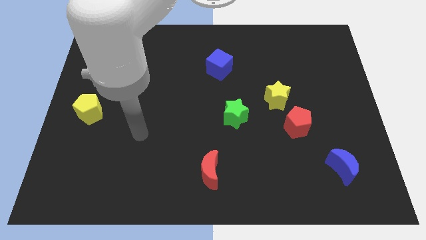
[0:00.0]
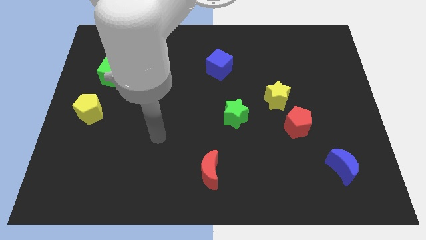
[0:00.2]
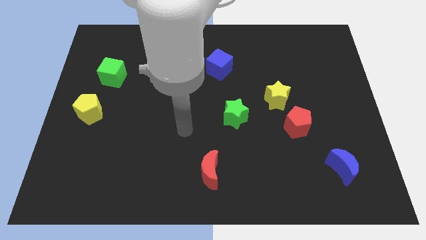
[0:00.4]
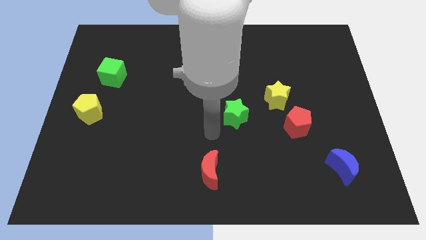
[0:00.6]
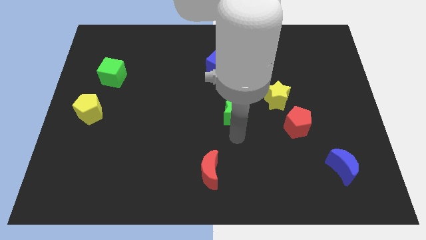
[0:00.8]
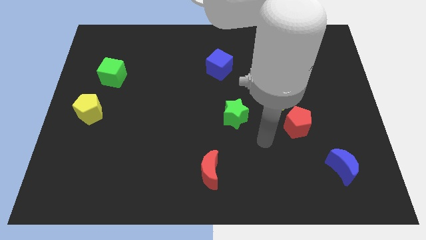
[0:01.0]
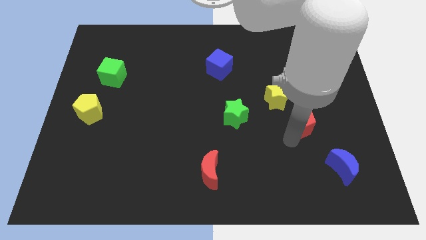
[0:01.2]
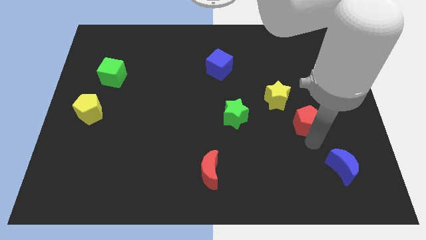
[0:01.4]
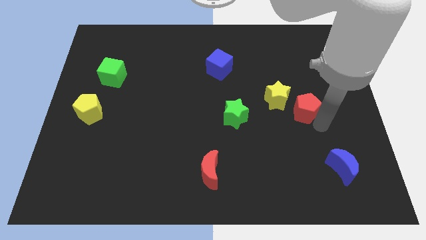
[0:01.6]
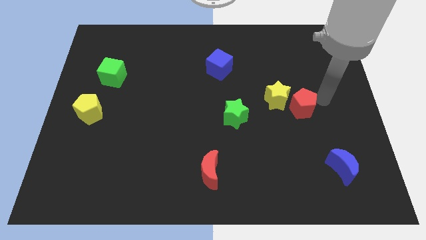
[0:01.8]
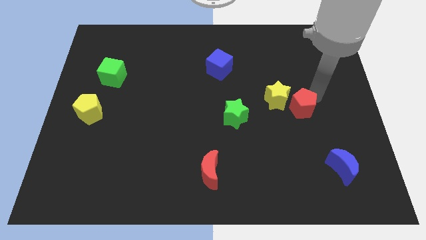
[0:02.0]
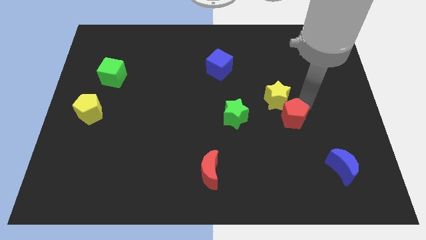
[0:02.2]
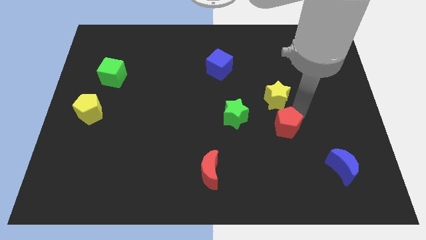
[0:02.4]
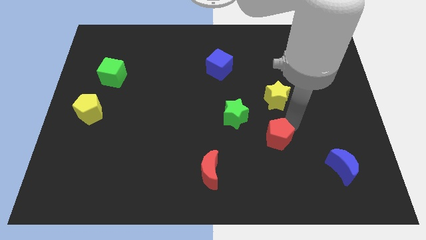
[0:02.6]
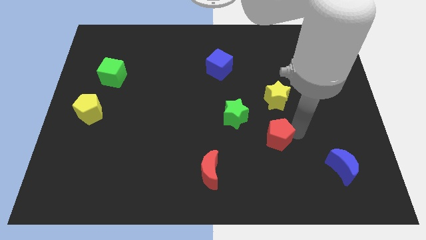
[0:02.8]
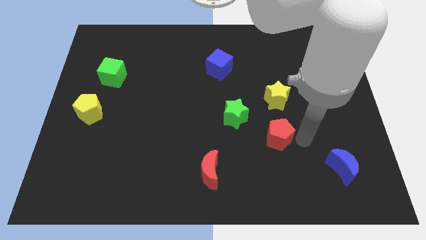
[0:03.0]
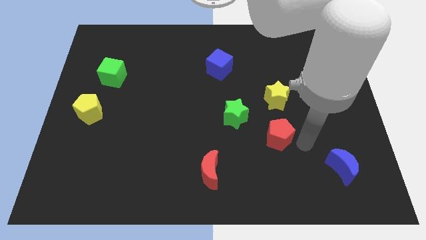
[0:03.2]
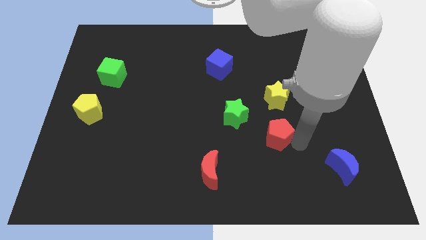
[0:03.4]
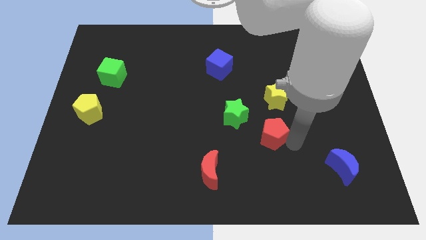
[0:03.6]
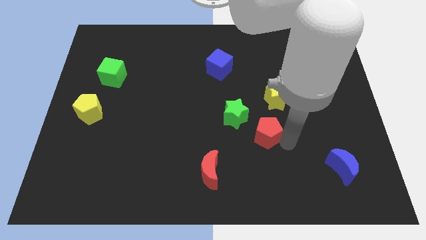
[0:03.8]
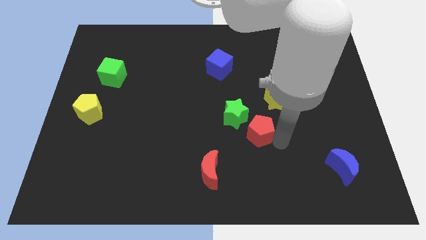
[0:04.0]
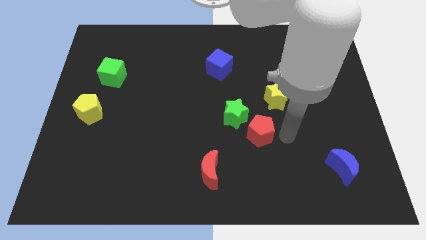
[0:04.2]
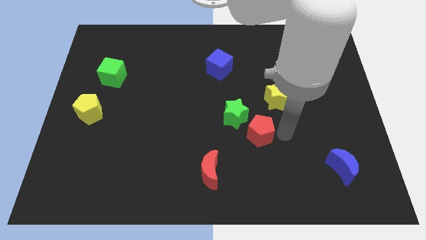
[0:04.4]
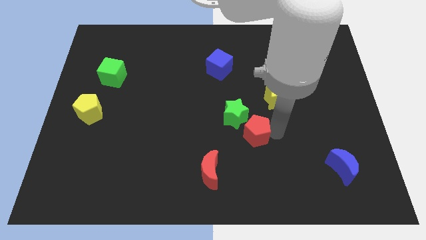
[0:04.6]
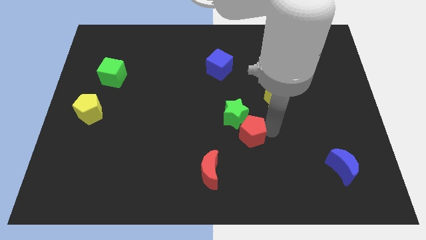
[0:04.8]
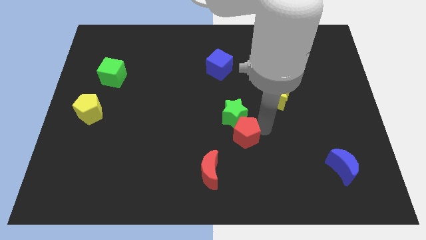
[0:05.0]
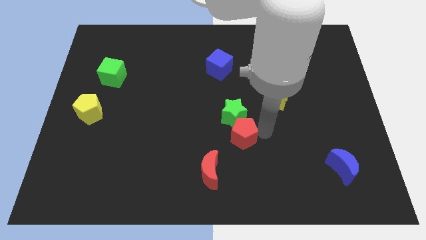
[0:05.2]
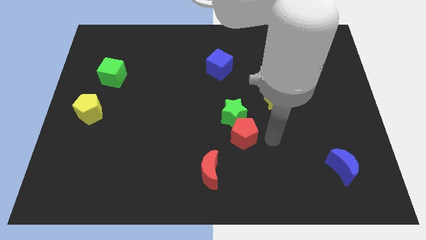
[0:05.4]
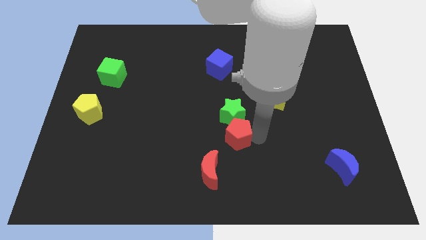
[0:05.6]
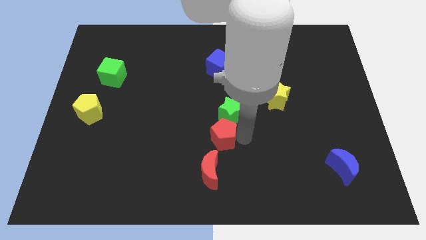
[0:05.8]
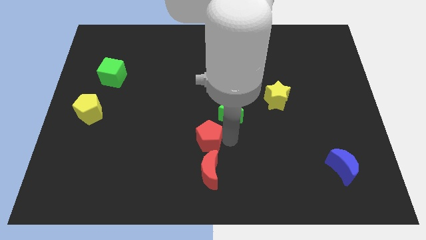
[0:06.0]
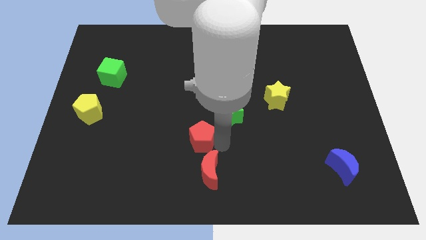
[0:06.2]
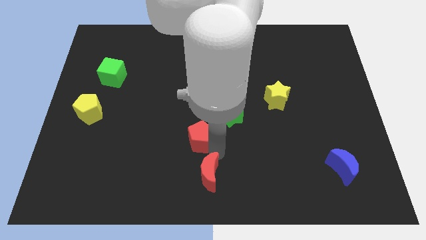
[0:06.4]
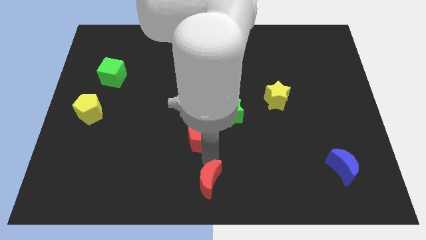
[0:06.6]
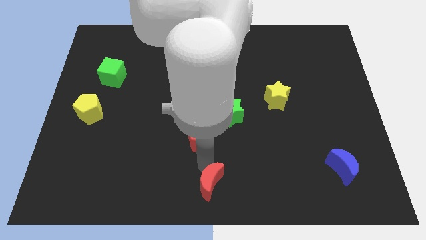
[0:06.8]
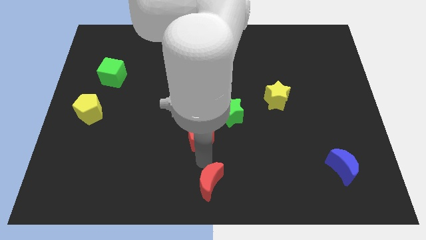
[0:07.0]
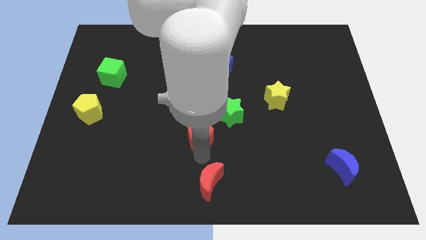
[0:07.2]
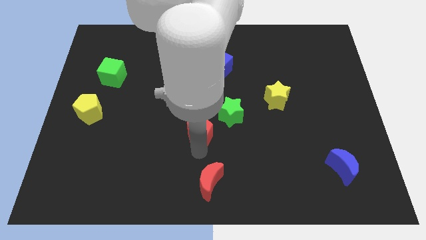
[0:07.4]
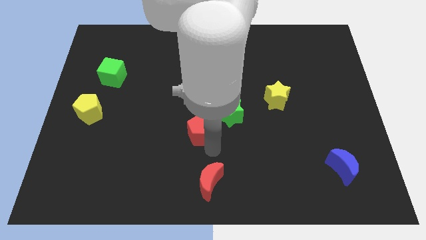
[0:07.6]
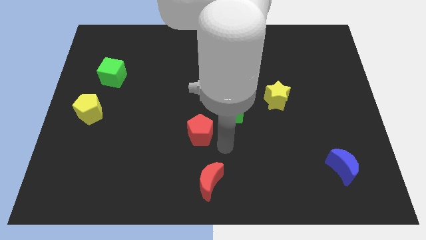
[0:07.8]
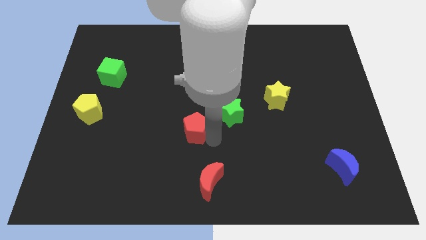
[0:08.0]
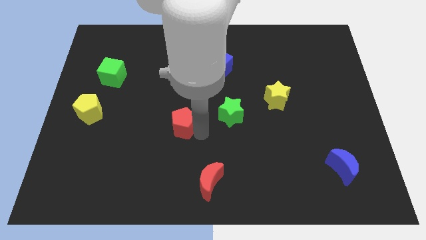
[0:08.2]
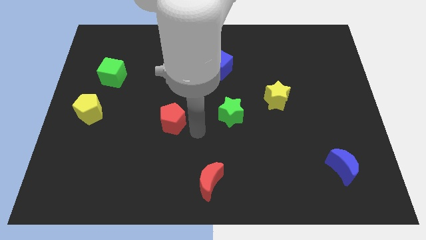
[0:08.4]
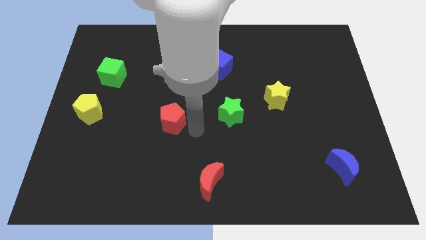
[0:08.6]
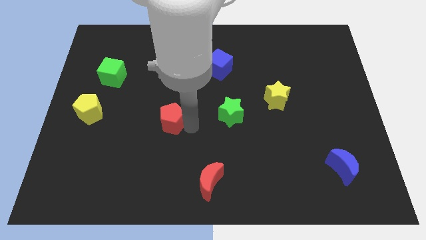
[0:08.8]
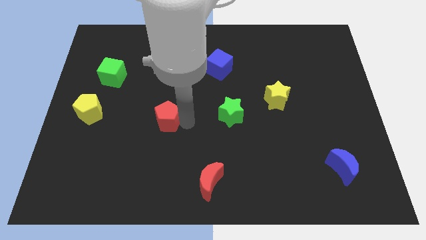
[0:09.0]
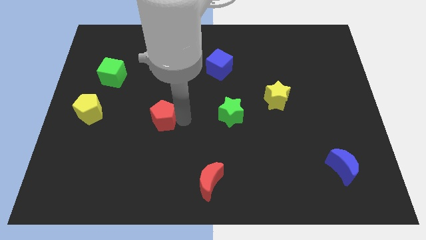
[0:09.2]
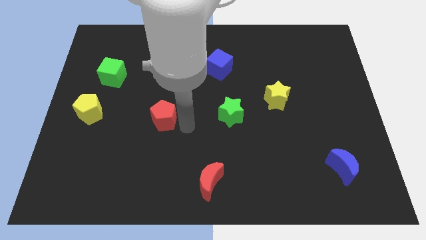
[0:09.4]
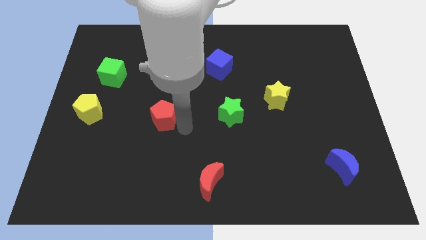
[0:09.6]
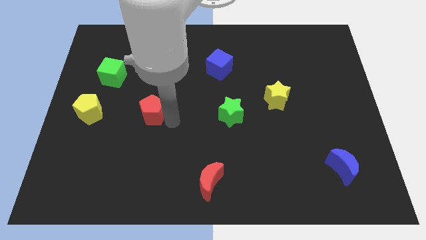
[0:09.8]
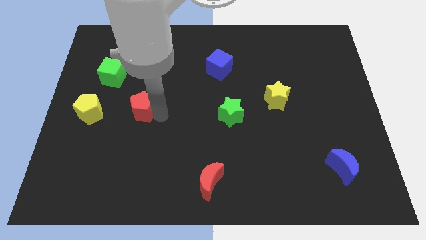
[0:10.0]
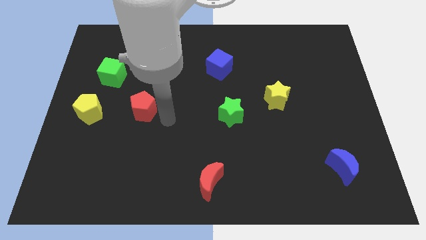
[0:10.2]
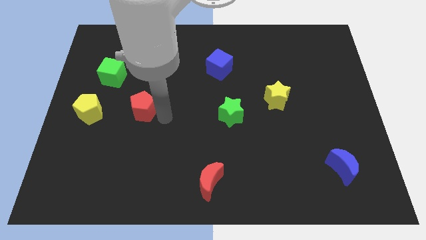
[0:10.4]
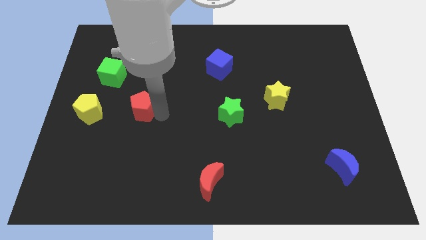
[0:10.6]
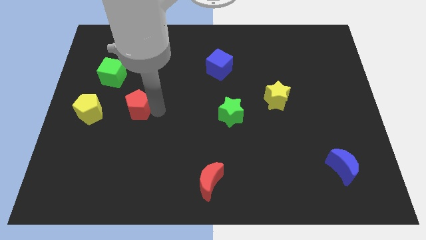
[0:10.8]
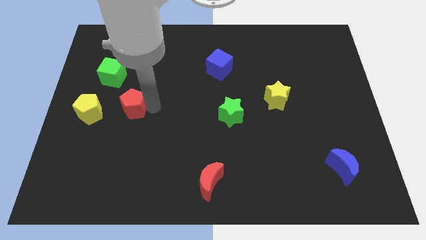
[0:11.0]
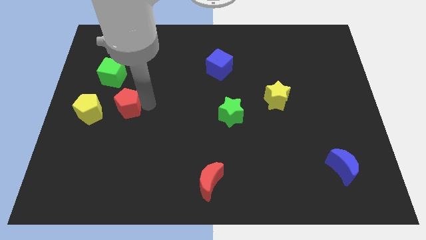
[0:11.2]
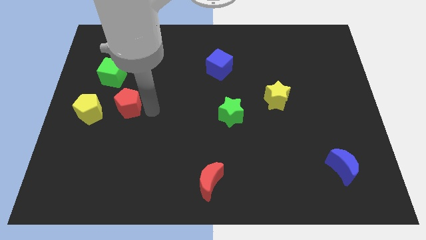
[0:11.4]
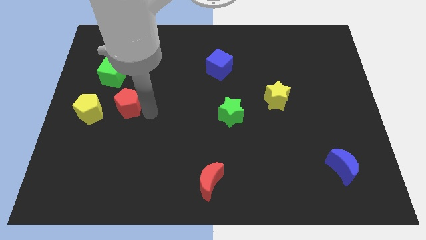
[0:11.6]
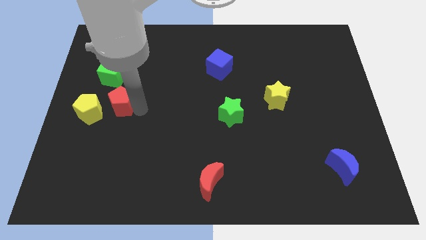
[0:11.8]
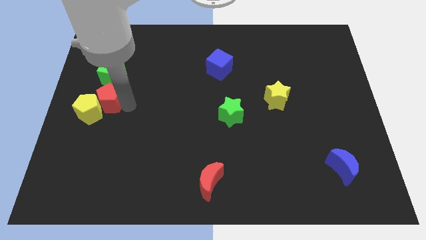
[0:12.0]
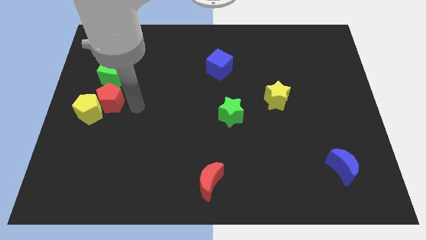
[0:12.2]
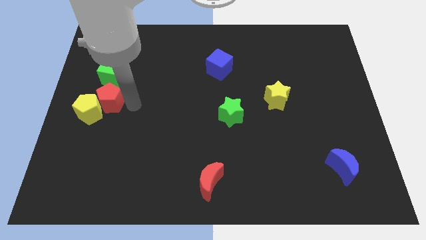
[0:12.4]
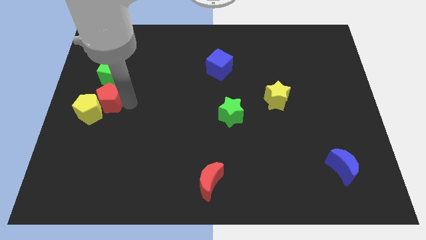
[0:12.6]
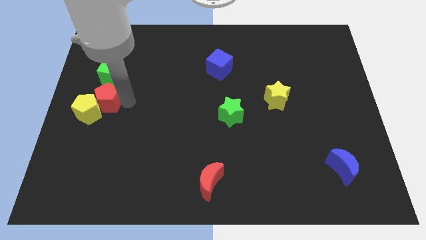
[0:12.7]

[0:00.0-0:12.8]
move the red pentagon to the left side
